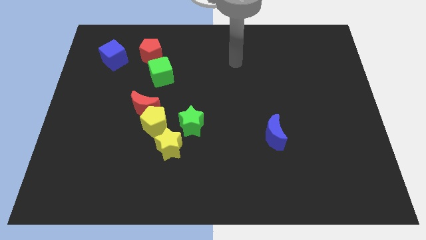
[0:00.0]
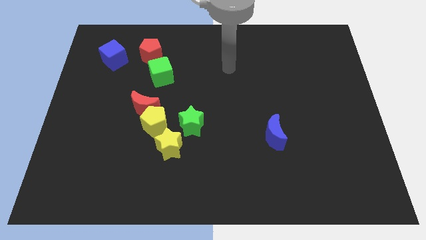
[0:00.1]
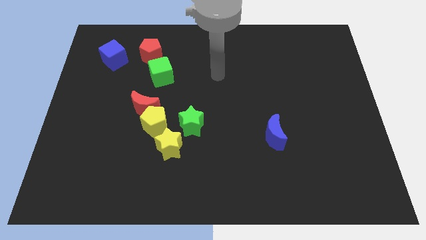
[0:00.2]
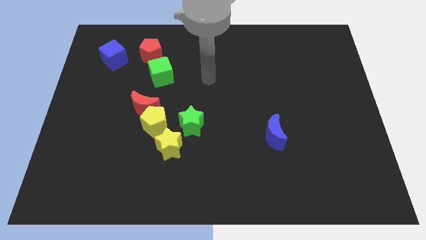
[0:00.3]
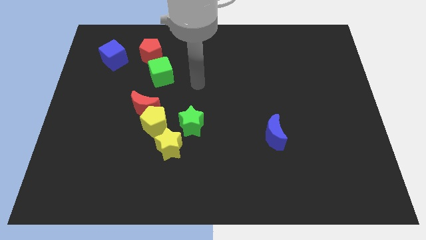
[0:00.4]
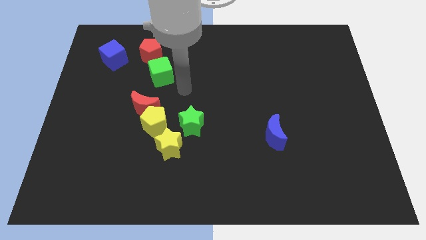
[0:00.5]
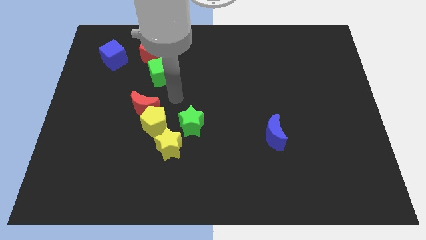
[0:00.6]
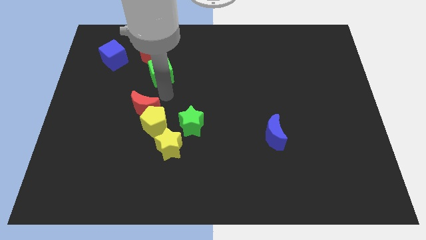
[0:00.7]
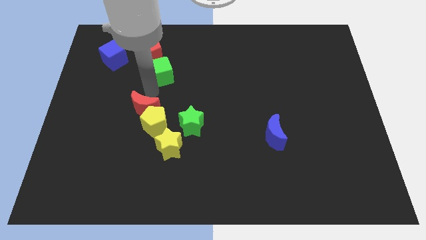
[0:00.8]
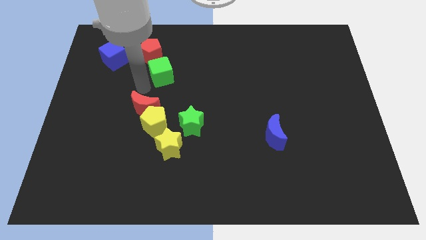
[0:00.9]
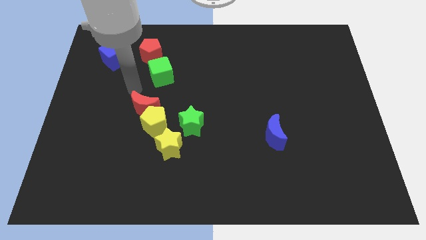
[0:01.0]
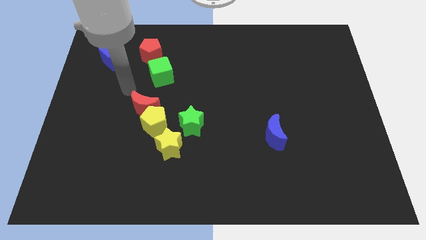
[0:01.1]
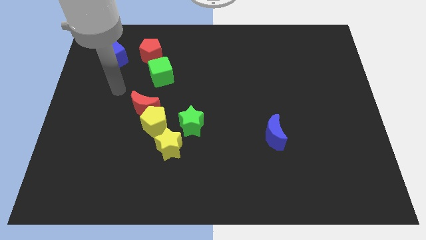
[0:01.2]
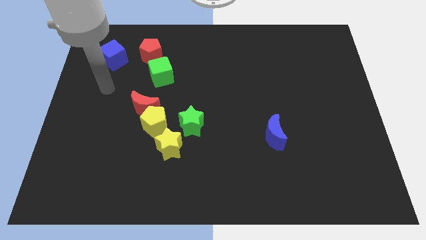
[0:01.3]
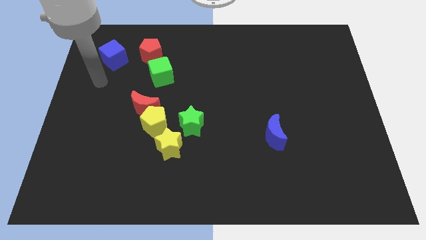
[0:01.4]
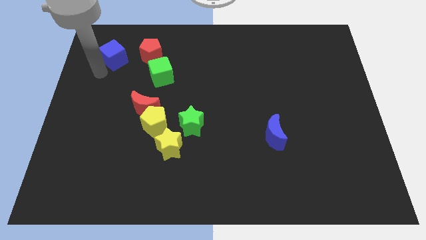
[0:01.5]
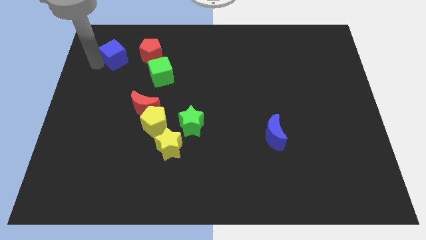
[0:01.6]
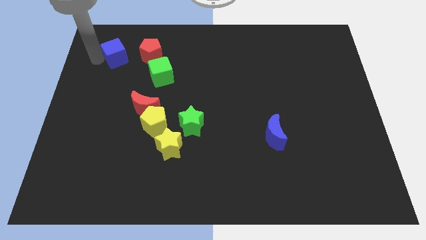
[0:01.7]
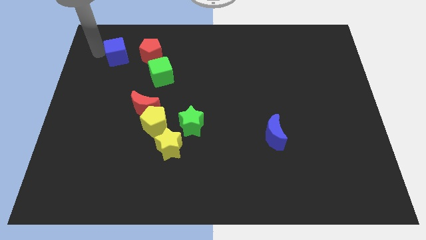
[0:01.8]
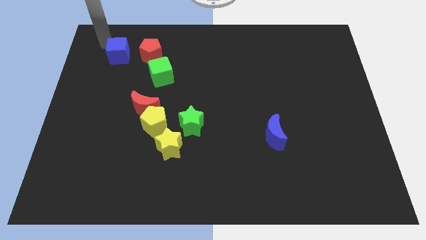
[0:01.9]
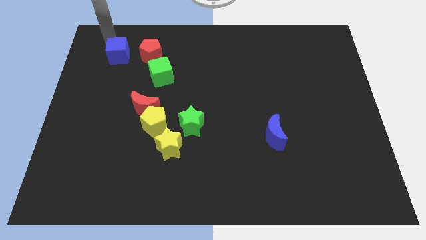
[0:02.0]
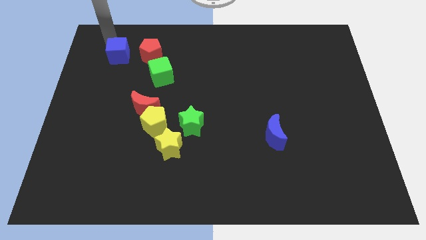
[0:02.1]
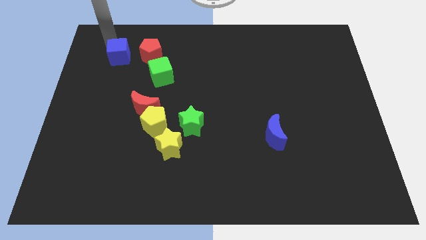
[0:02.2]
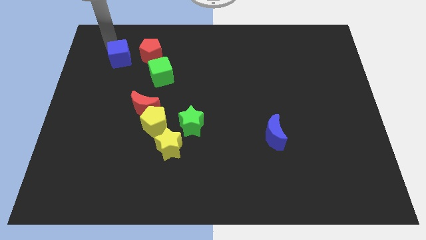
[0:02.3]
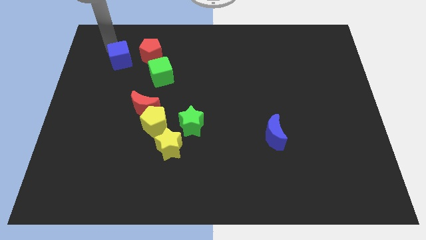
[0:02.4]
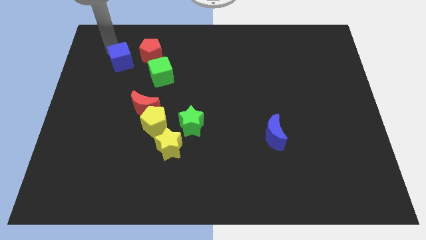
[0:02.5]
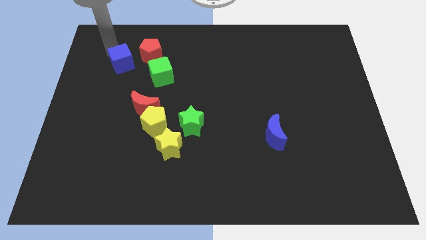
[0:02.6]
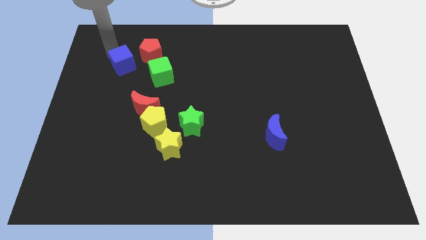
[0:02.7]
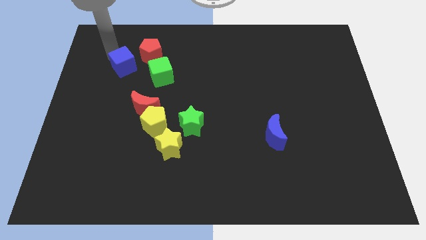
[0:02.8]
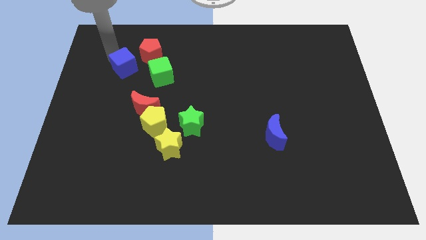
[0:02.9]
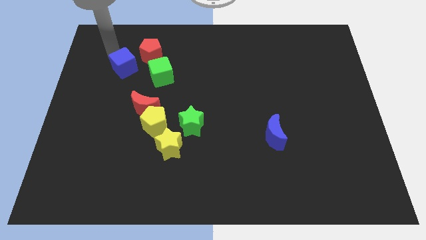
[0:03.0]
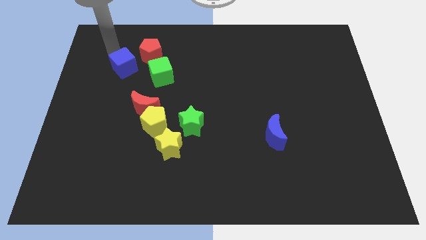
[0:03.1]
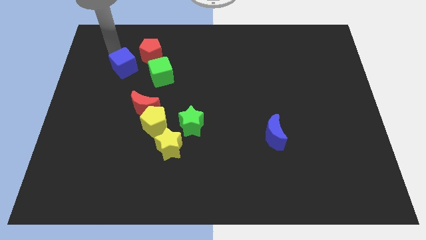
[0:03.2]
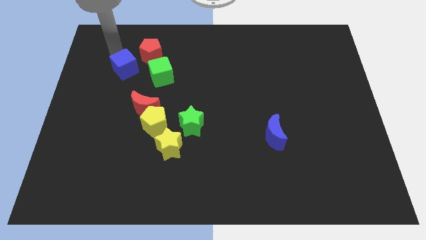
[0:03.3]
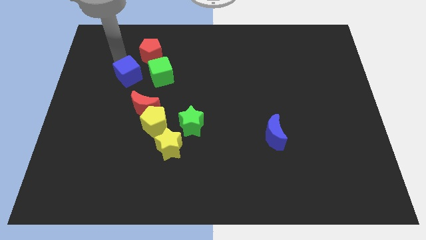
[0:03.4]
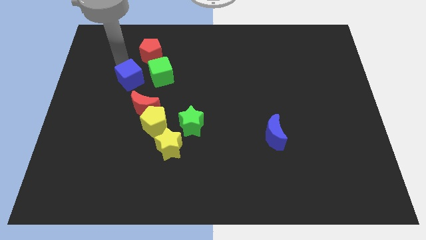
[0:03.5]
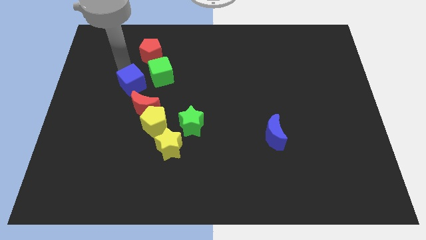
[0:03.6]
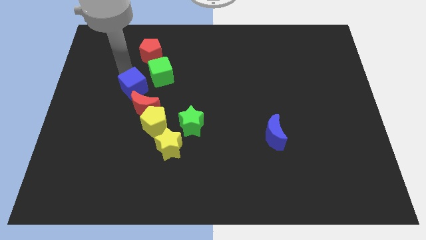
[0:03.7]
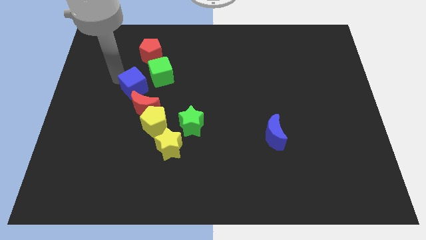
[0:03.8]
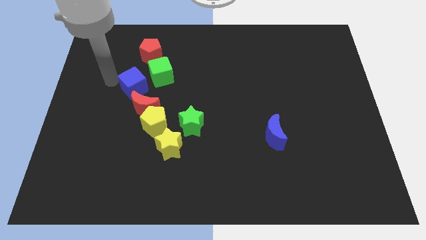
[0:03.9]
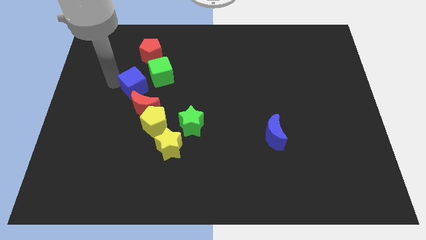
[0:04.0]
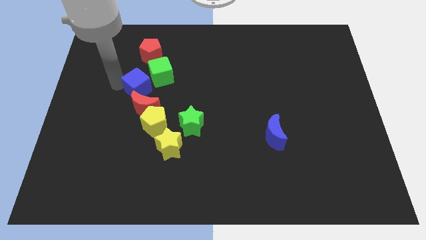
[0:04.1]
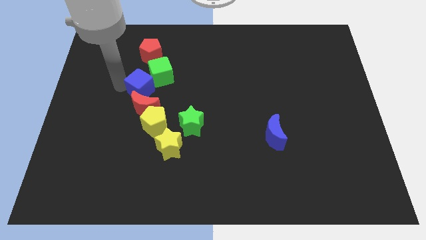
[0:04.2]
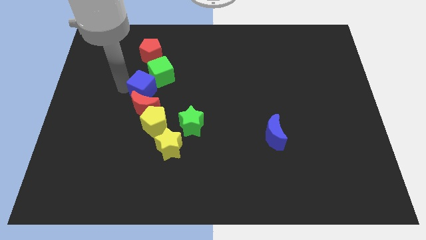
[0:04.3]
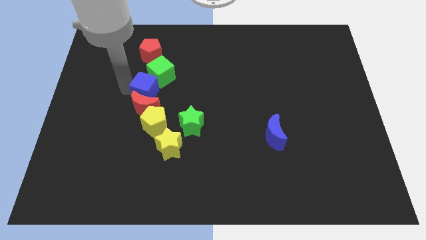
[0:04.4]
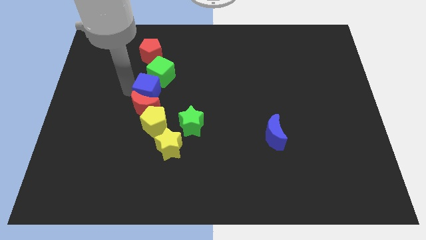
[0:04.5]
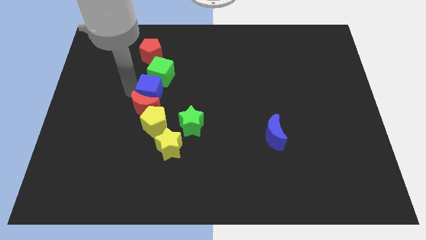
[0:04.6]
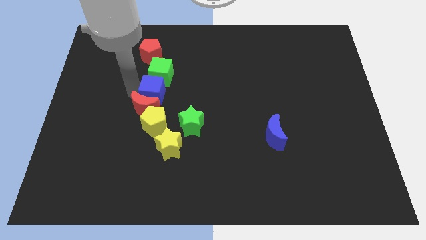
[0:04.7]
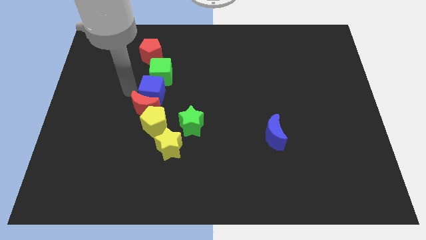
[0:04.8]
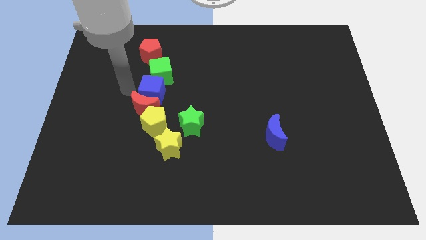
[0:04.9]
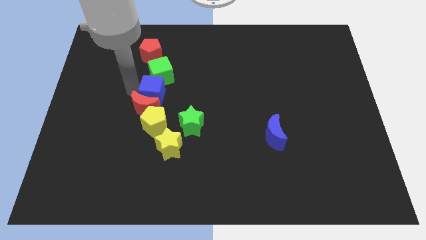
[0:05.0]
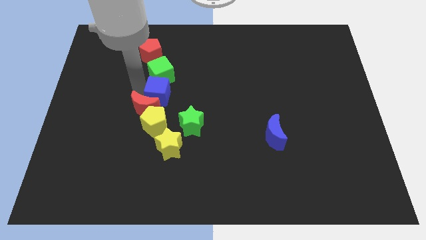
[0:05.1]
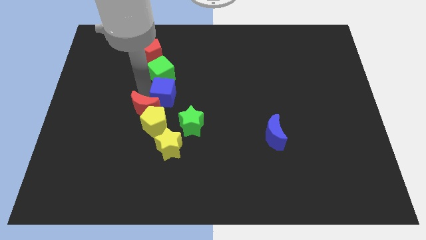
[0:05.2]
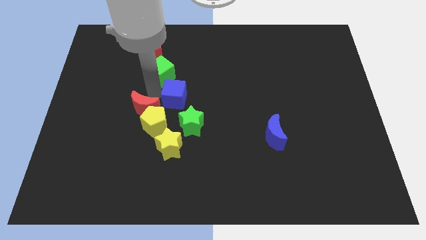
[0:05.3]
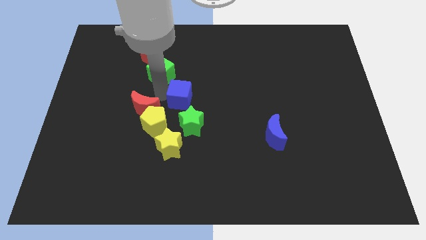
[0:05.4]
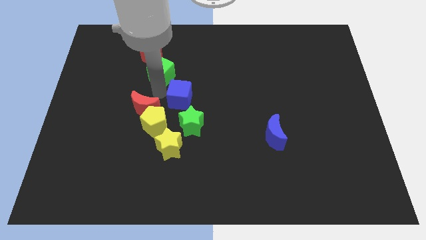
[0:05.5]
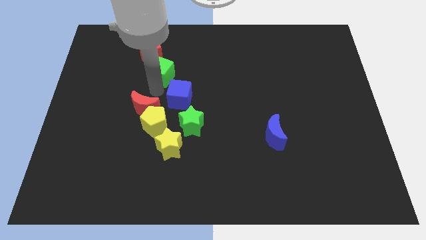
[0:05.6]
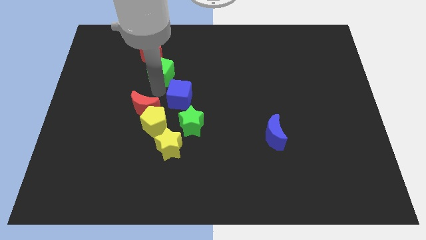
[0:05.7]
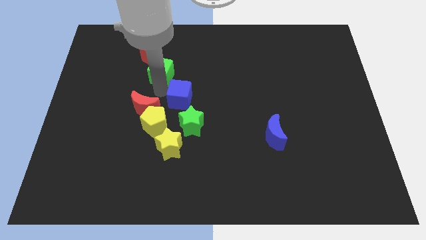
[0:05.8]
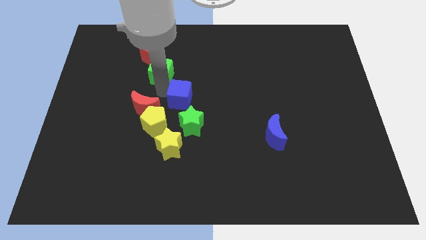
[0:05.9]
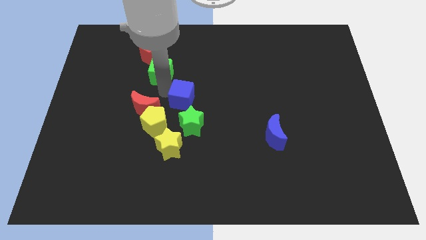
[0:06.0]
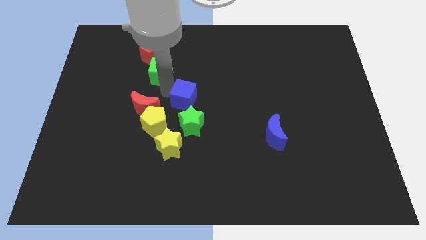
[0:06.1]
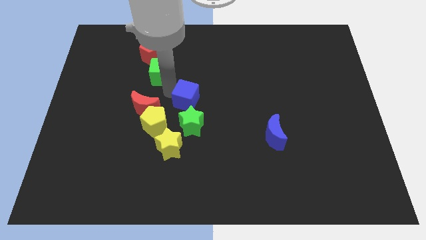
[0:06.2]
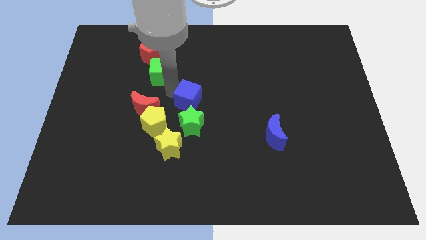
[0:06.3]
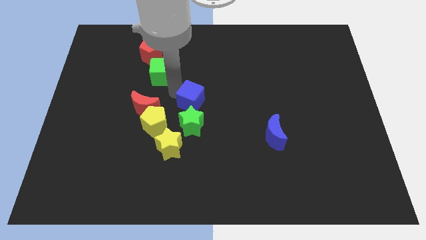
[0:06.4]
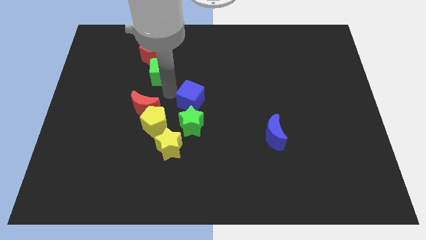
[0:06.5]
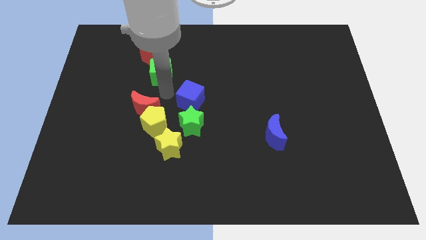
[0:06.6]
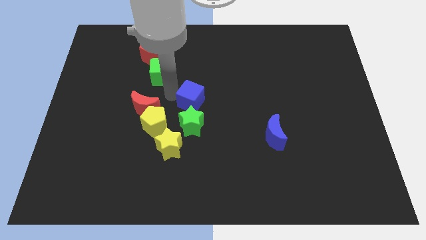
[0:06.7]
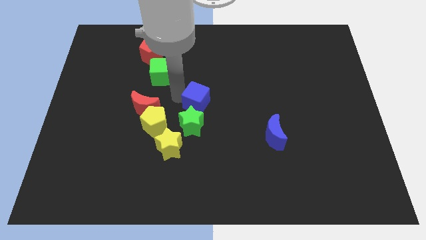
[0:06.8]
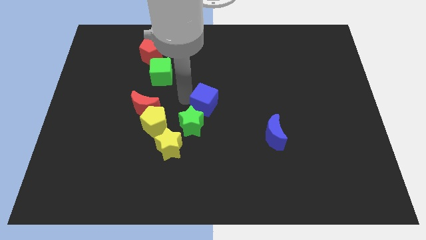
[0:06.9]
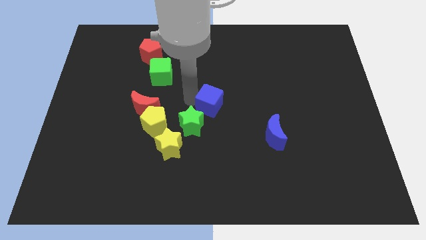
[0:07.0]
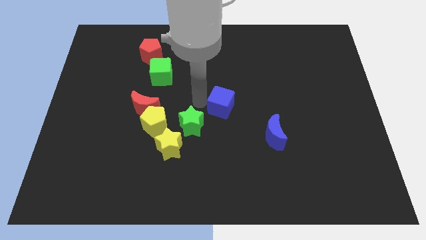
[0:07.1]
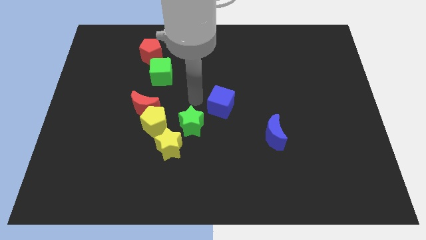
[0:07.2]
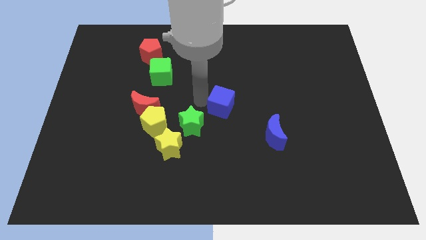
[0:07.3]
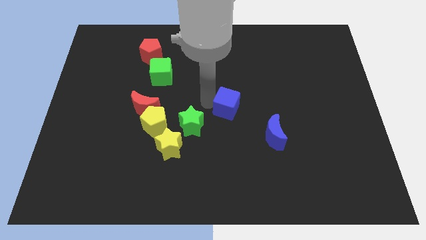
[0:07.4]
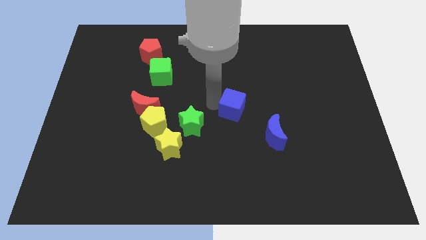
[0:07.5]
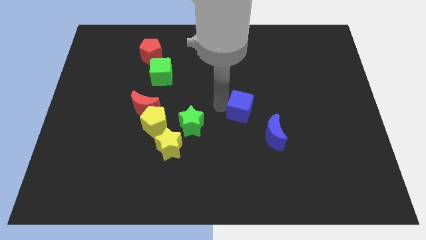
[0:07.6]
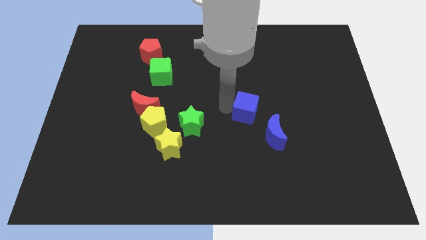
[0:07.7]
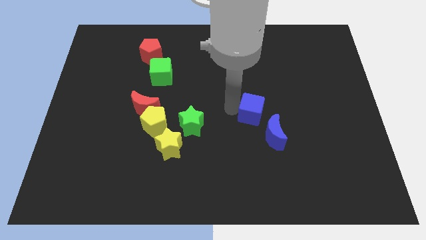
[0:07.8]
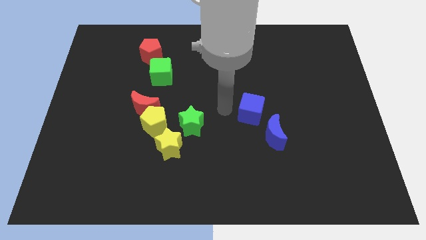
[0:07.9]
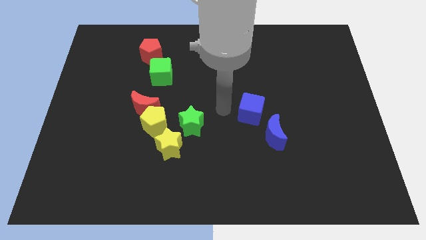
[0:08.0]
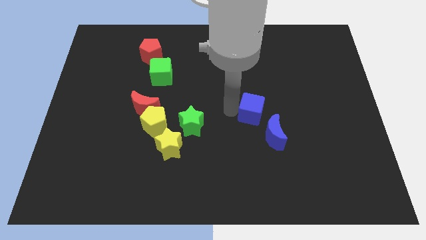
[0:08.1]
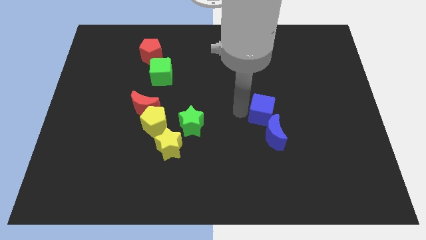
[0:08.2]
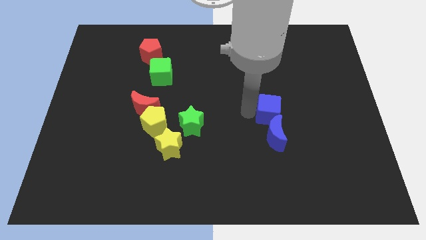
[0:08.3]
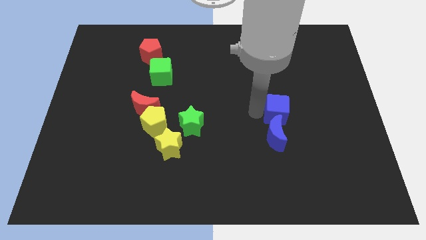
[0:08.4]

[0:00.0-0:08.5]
push the blue cube to the top right of the blue moon
